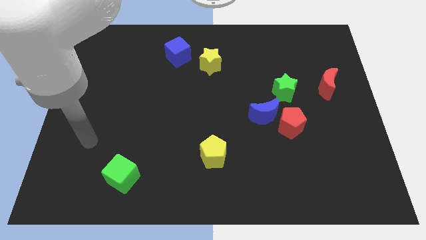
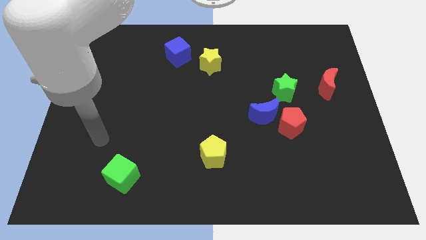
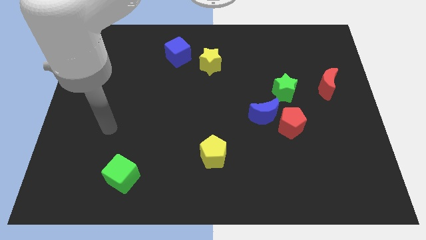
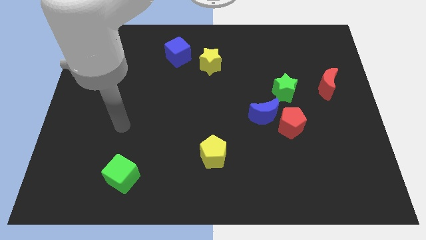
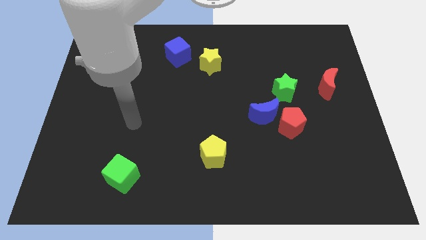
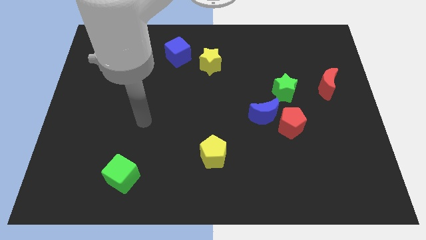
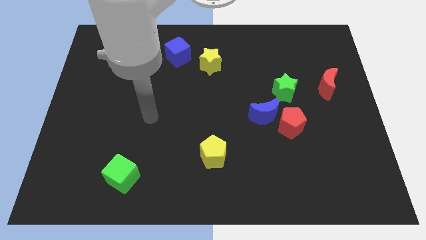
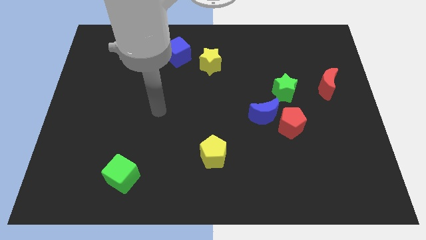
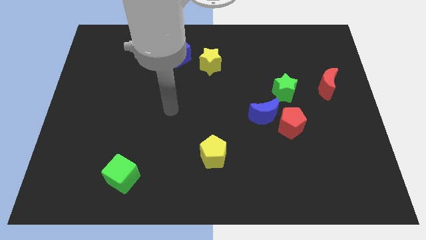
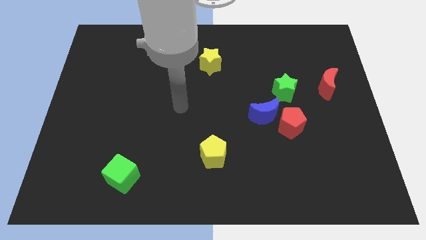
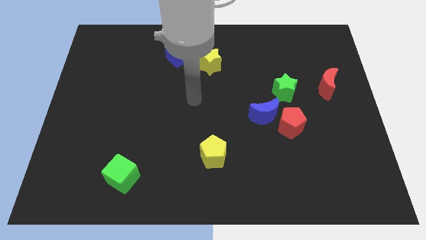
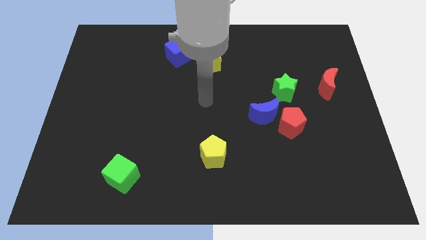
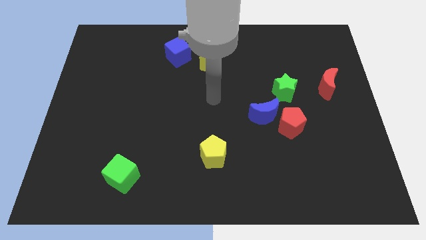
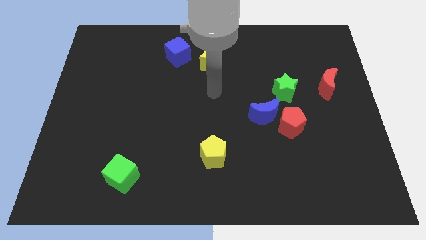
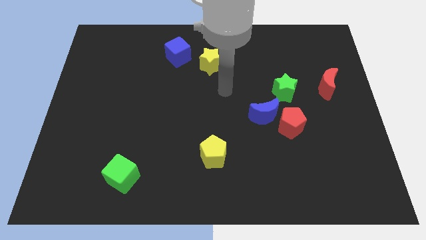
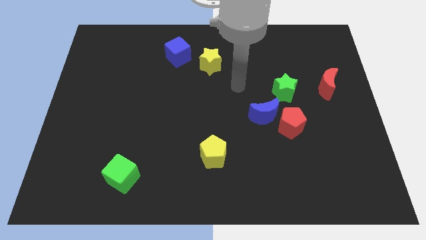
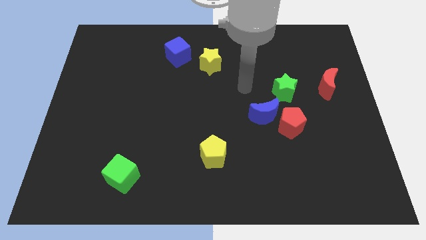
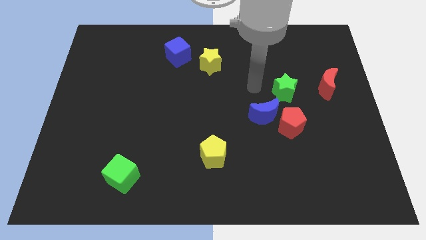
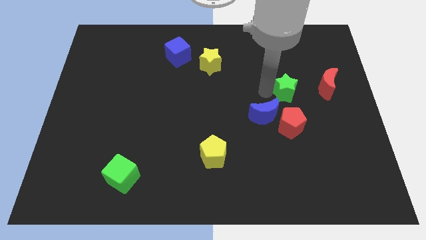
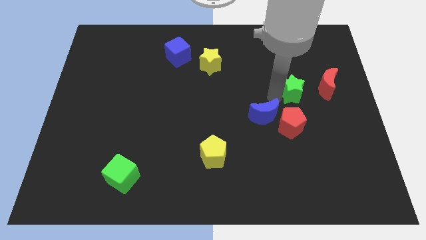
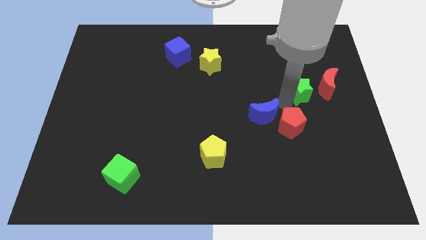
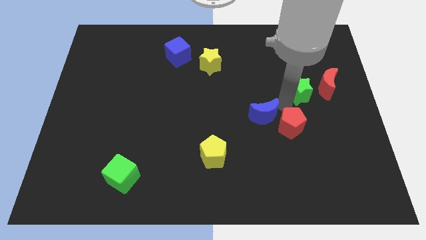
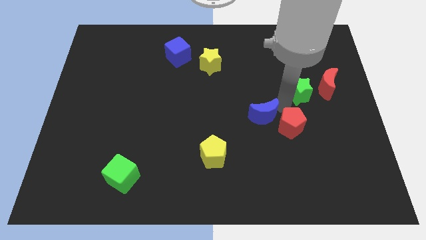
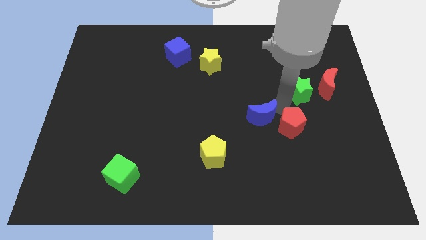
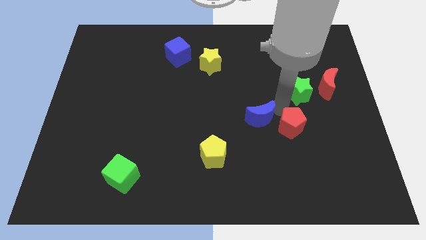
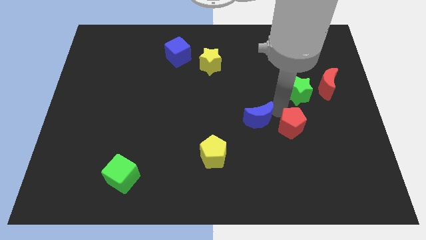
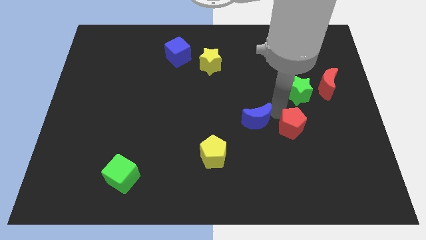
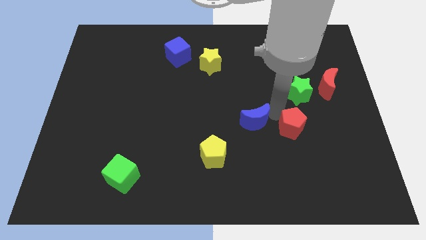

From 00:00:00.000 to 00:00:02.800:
pull the blue moon apart from the red pentagon and green star

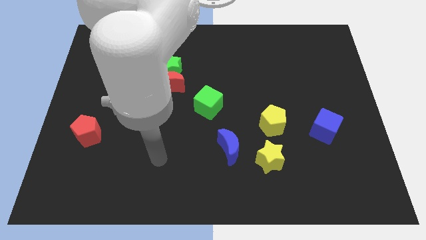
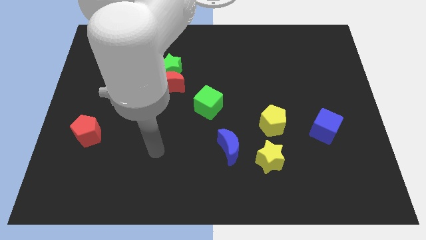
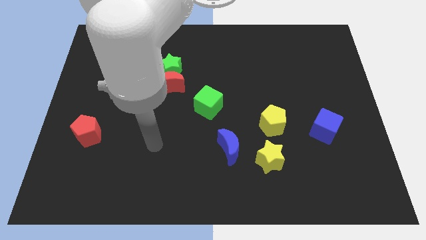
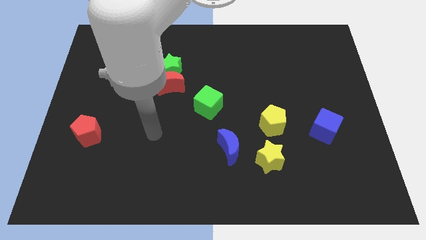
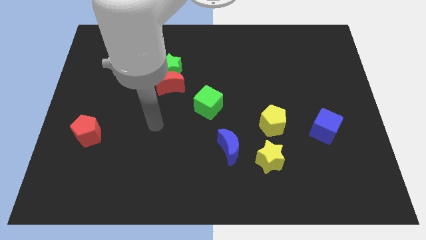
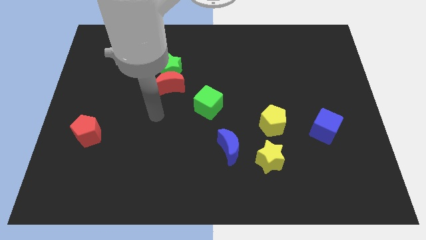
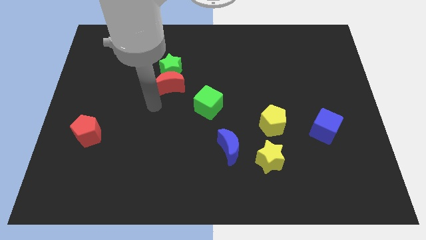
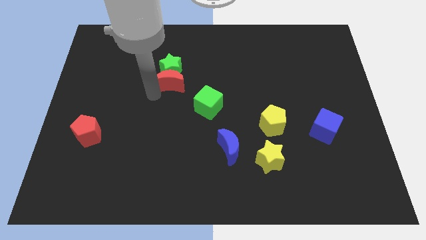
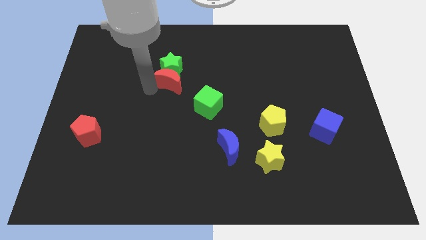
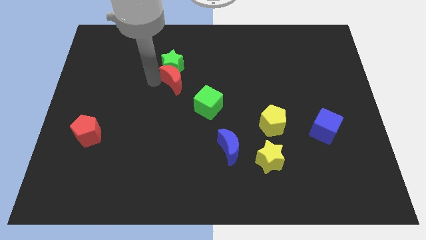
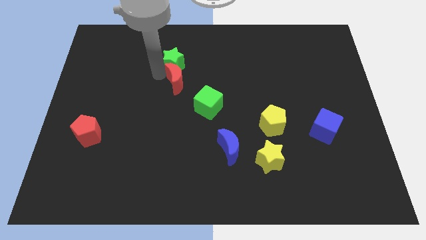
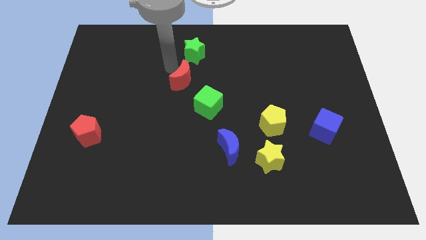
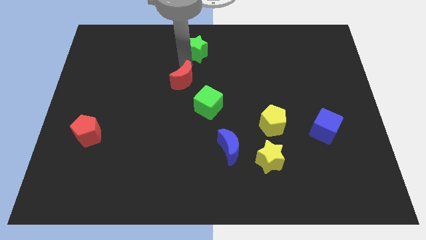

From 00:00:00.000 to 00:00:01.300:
pull the red moon apart from the green star

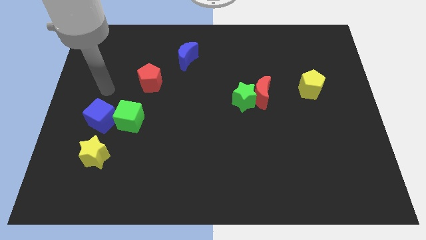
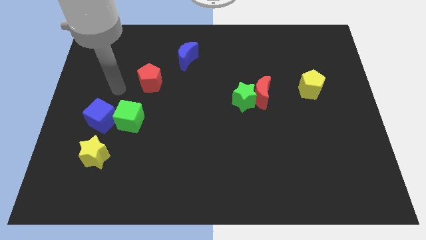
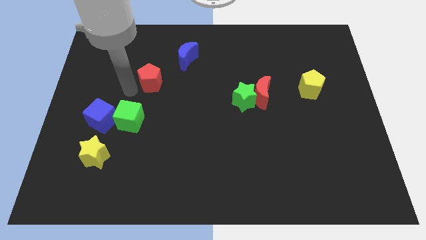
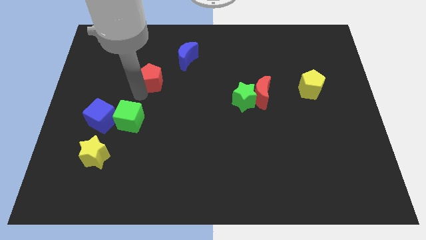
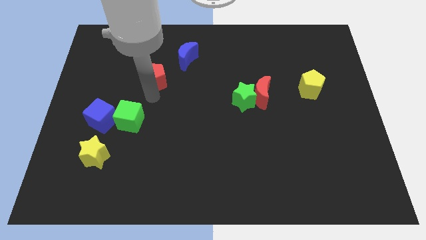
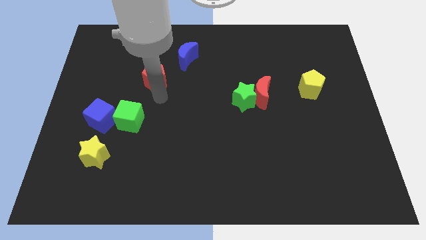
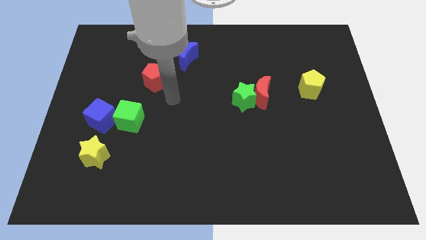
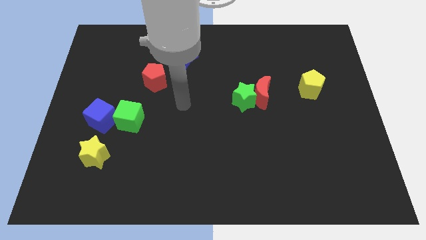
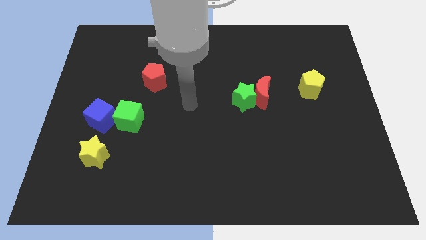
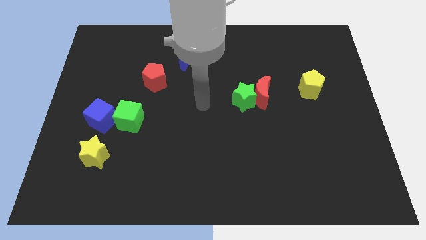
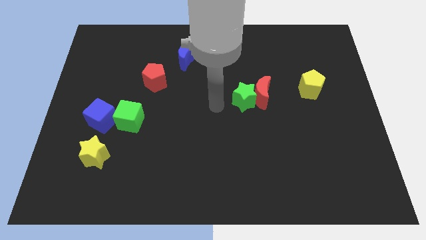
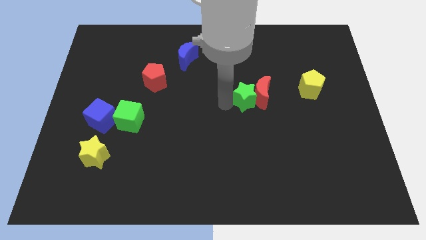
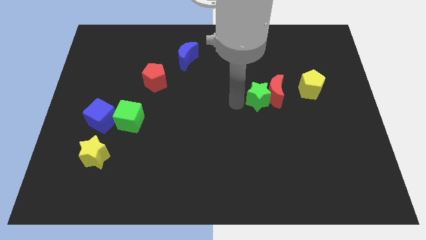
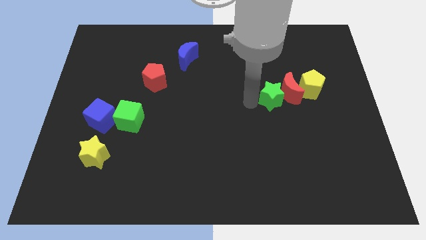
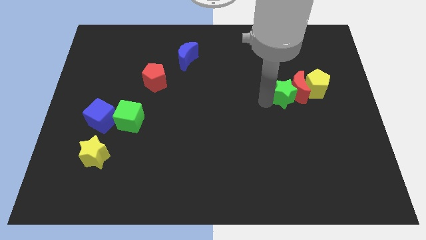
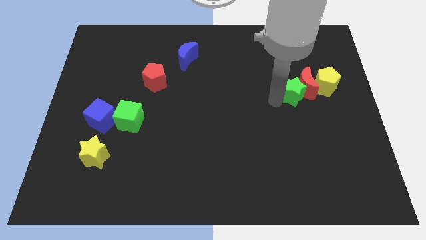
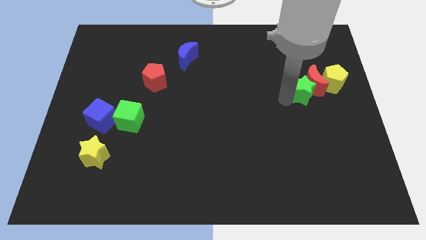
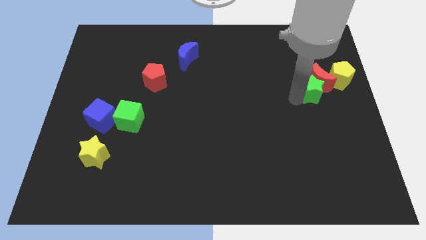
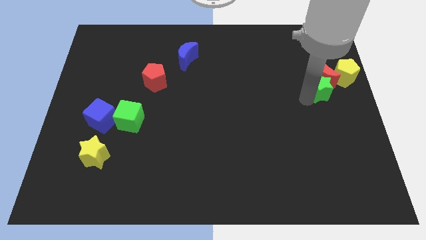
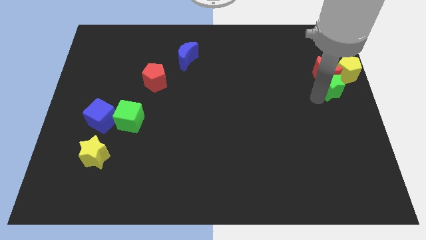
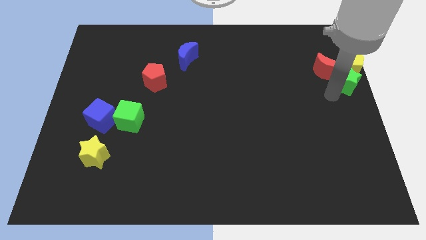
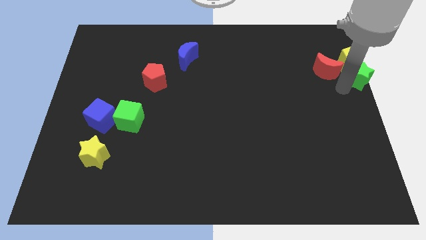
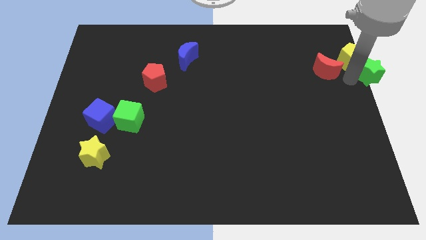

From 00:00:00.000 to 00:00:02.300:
separate the red moon from the green star

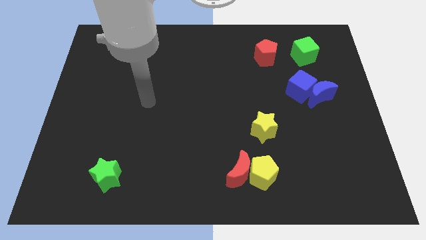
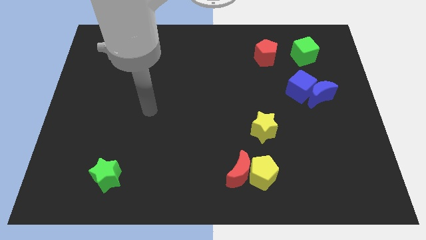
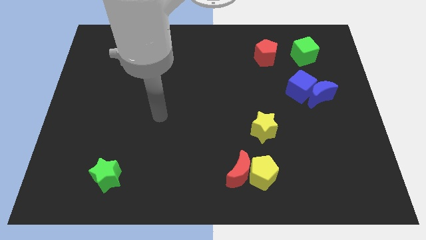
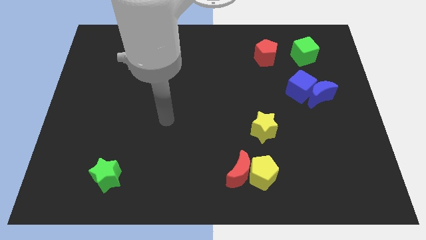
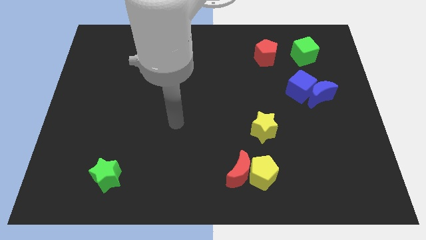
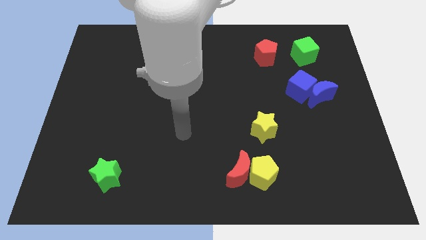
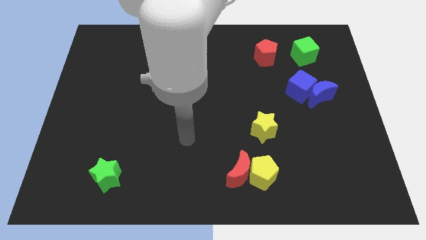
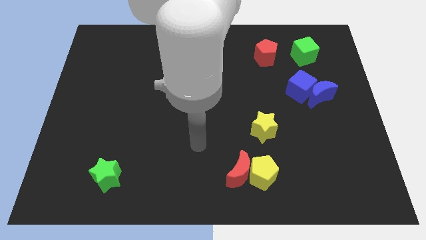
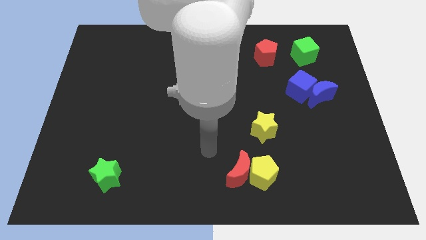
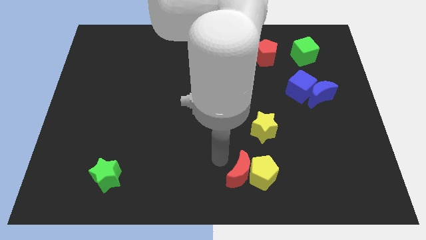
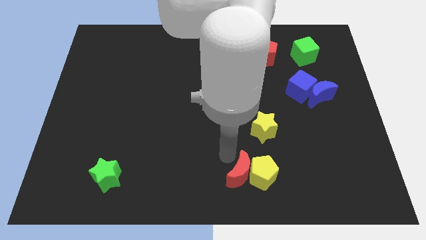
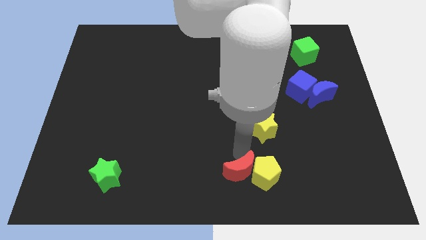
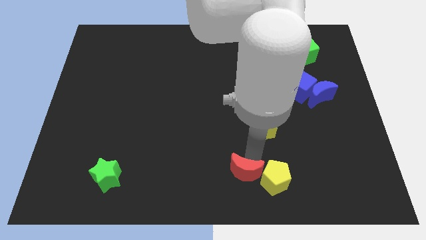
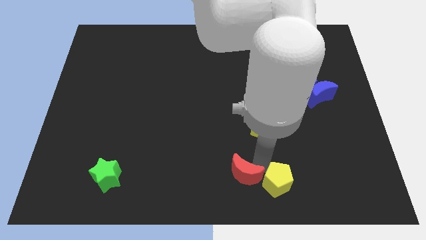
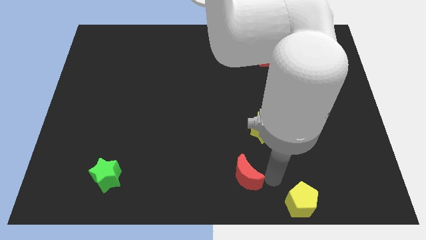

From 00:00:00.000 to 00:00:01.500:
separate the red moon from the yellow pentagon

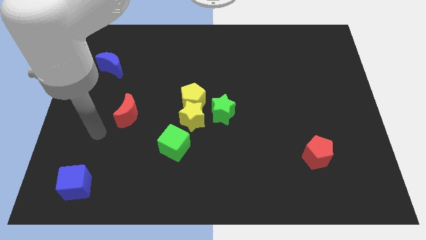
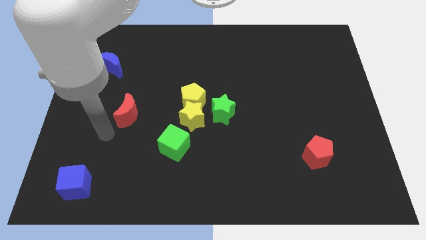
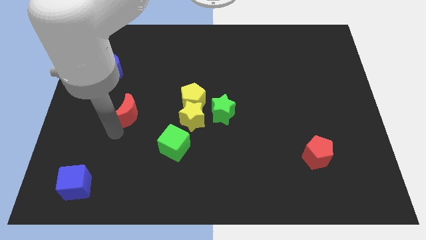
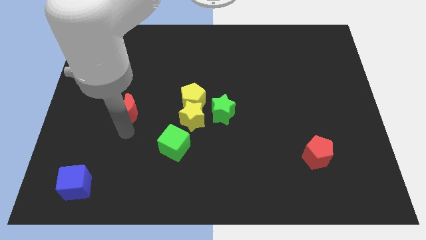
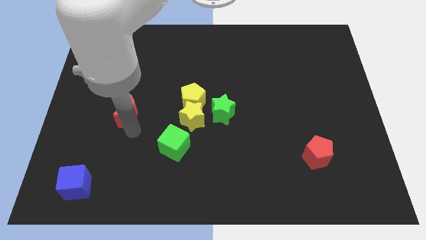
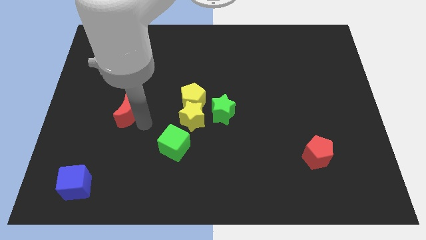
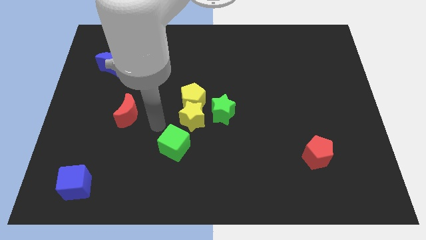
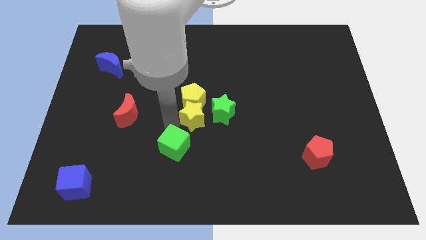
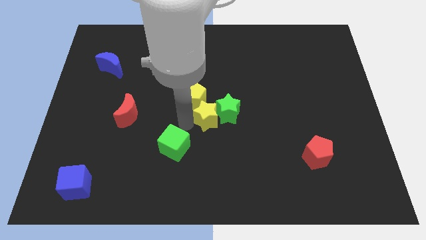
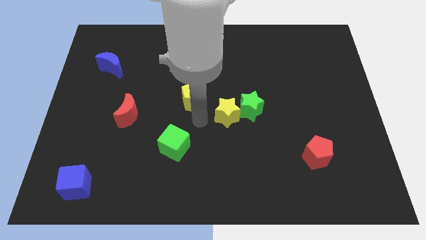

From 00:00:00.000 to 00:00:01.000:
pull the yellow pentagon apart from the yellow star and green star

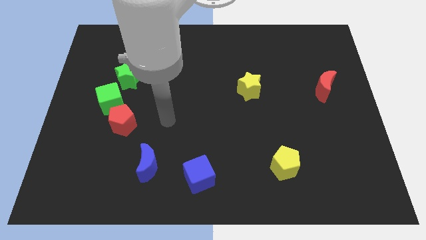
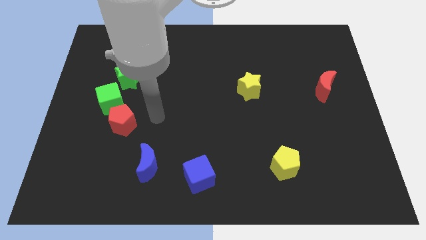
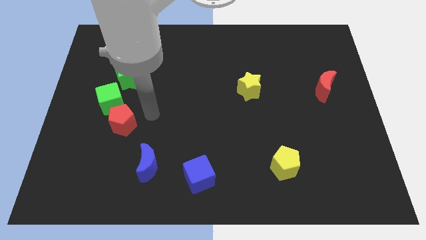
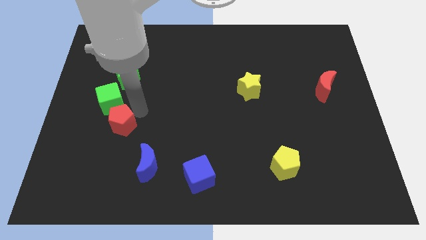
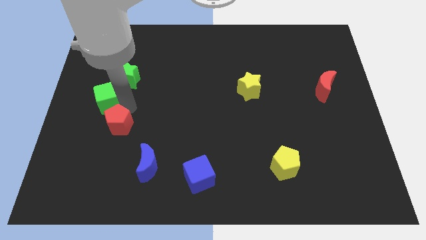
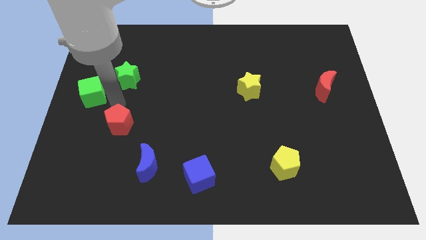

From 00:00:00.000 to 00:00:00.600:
pull the red pentagon apart from the green cube

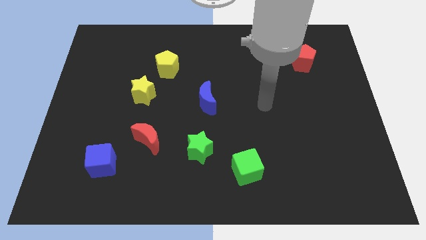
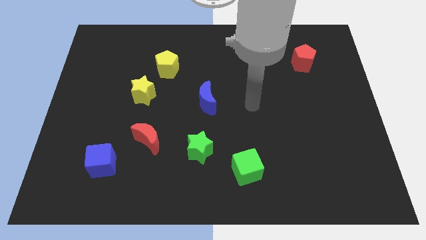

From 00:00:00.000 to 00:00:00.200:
separate the yellow star from the yellow pentagon
